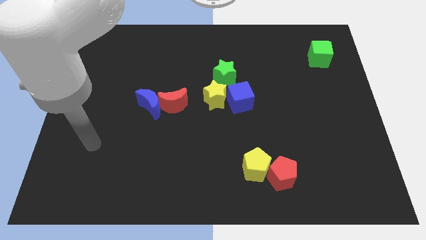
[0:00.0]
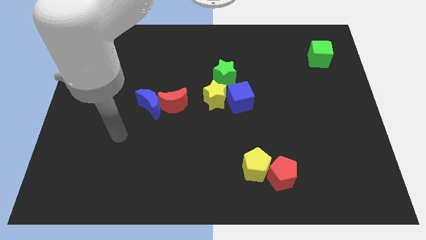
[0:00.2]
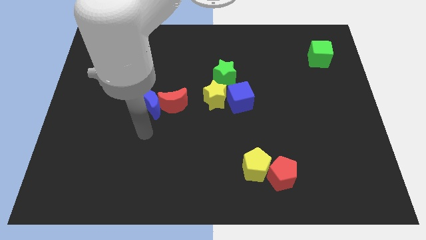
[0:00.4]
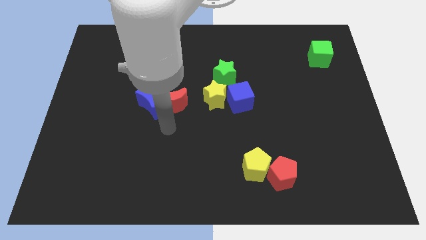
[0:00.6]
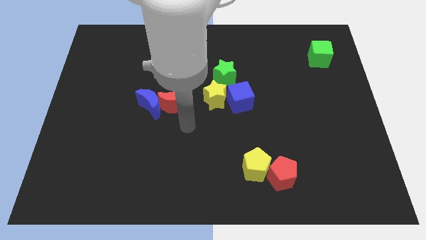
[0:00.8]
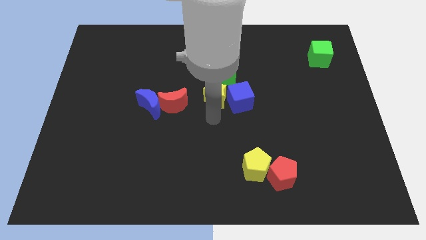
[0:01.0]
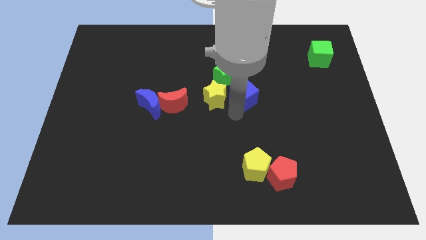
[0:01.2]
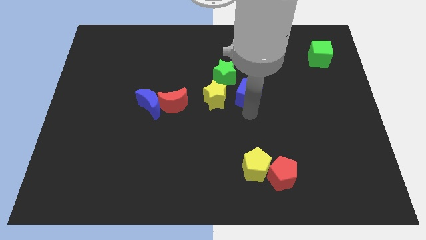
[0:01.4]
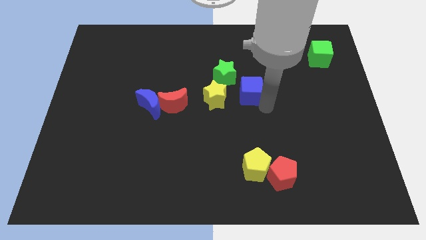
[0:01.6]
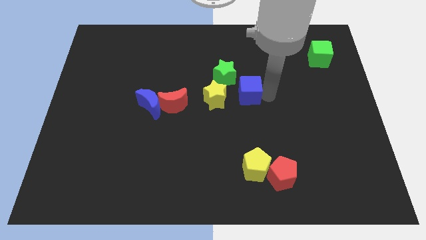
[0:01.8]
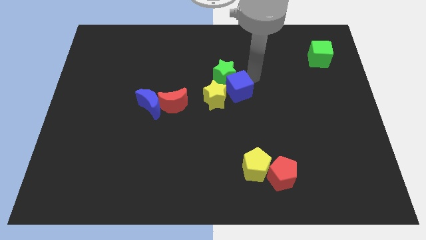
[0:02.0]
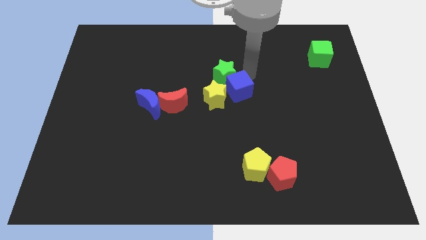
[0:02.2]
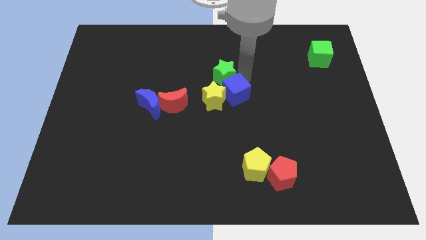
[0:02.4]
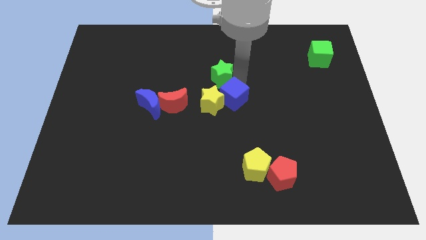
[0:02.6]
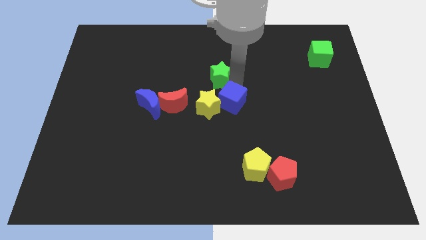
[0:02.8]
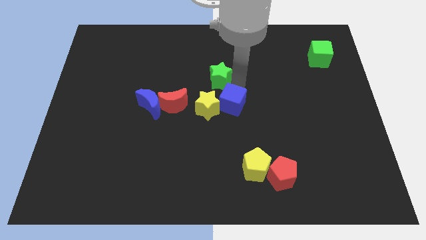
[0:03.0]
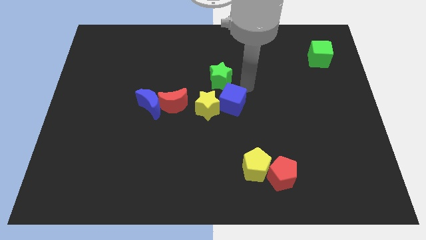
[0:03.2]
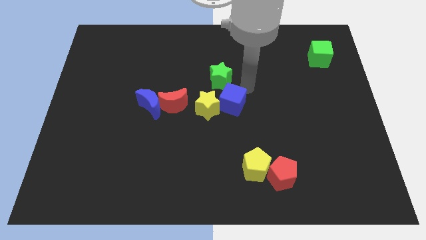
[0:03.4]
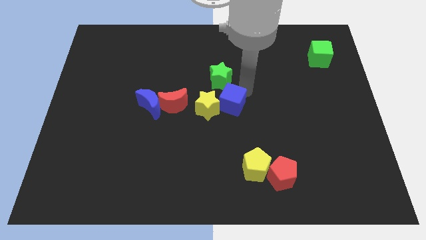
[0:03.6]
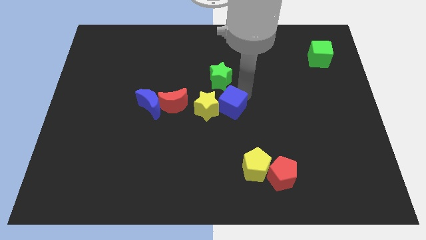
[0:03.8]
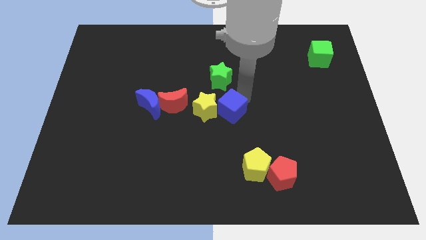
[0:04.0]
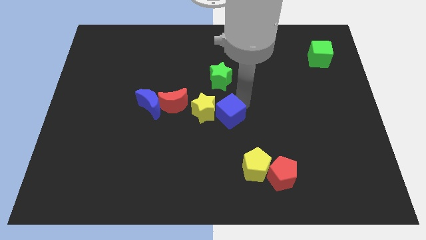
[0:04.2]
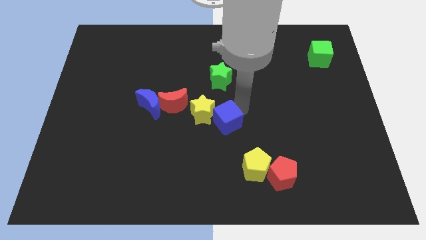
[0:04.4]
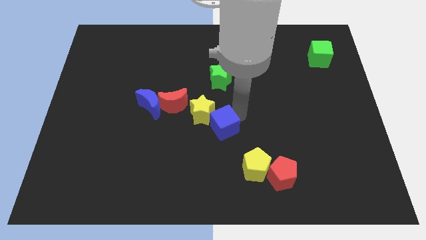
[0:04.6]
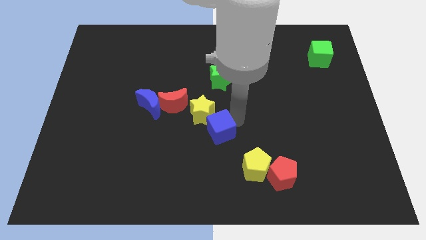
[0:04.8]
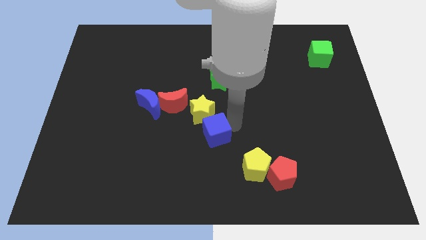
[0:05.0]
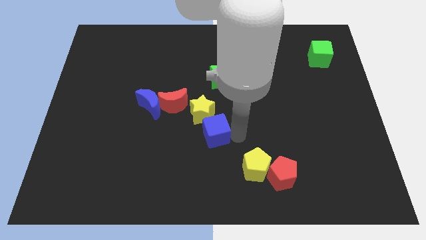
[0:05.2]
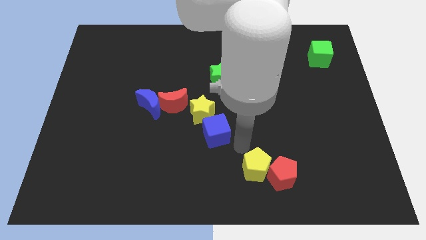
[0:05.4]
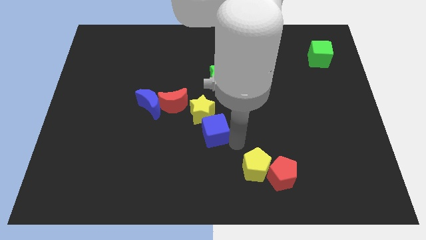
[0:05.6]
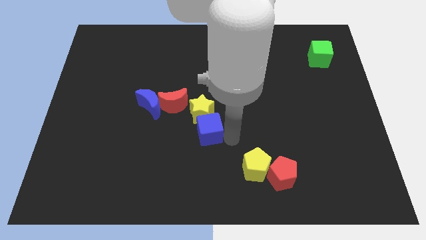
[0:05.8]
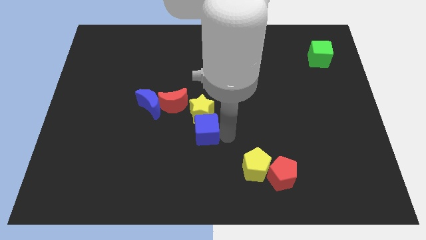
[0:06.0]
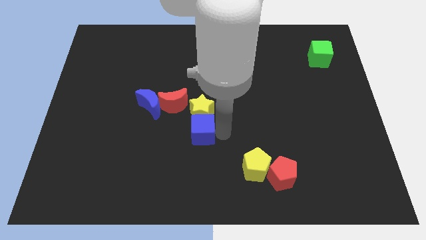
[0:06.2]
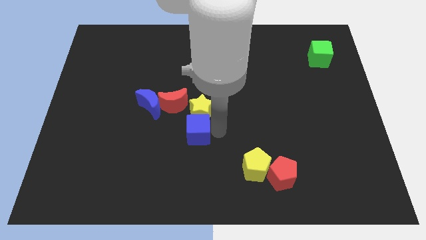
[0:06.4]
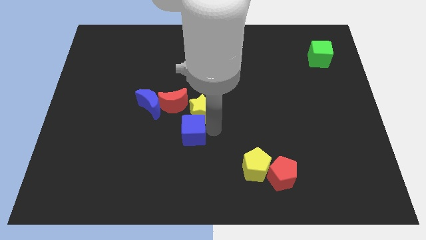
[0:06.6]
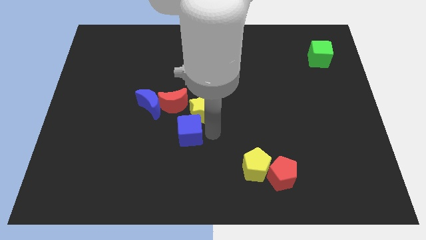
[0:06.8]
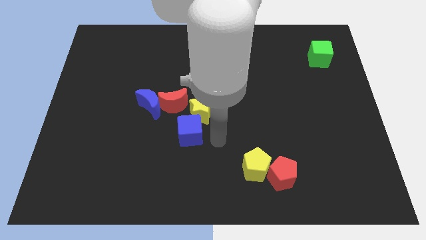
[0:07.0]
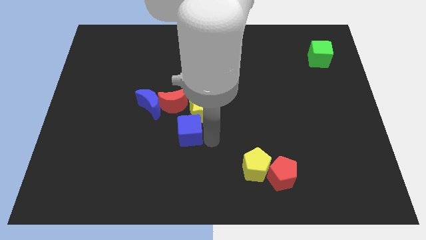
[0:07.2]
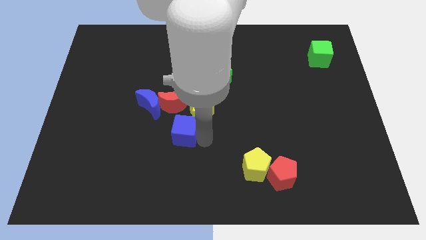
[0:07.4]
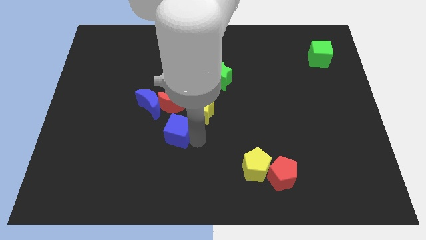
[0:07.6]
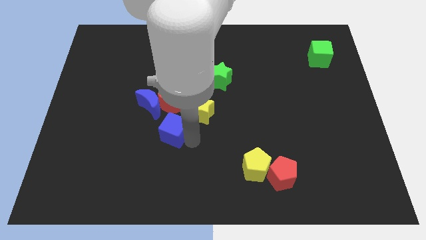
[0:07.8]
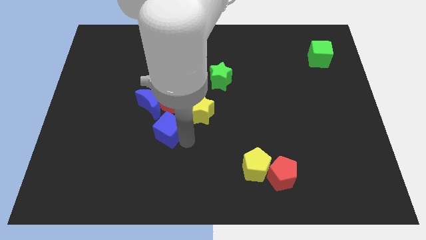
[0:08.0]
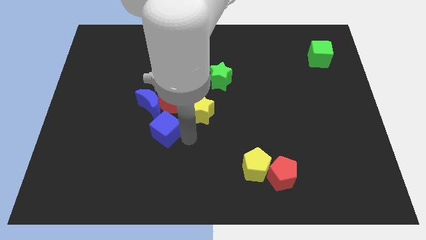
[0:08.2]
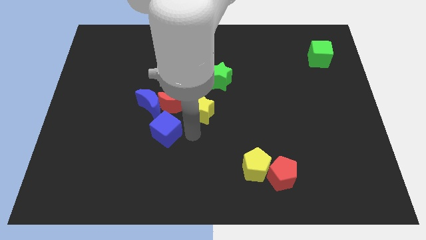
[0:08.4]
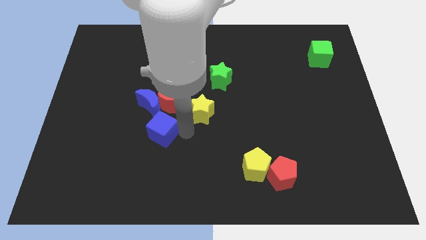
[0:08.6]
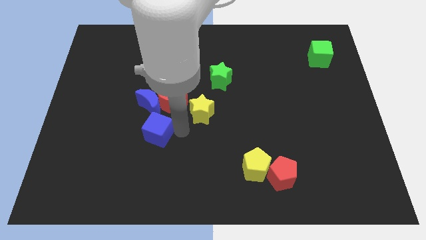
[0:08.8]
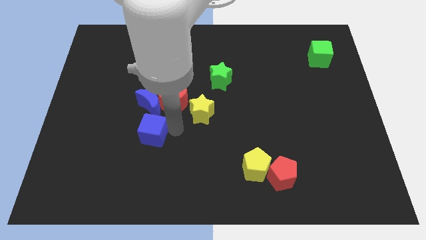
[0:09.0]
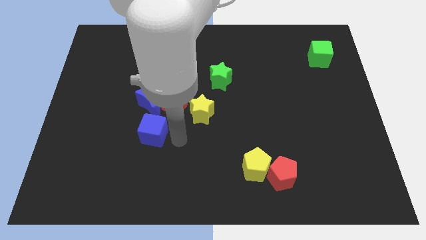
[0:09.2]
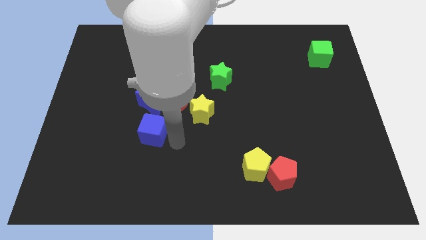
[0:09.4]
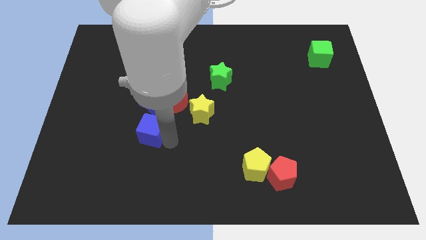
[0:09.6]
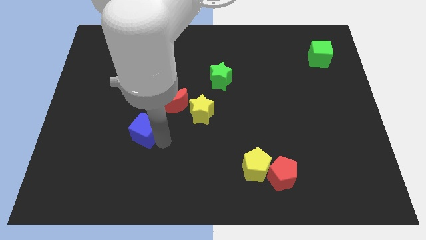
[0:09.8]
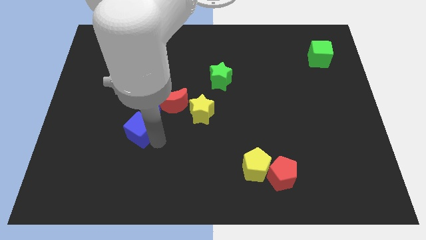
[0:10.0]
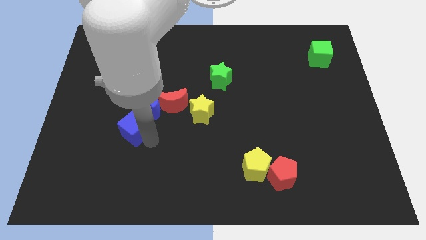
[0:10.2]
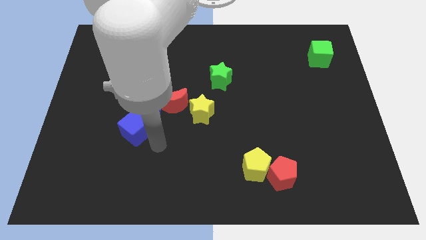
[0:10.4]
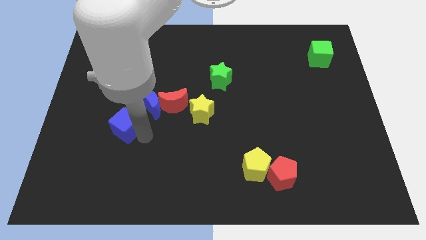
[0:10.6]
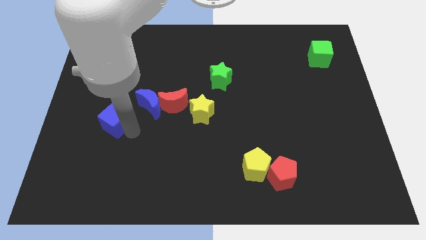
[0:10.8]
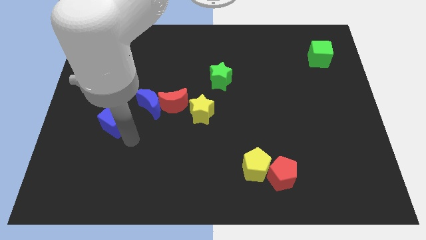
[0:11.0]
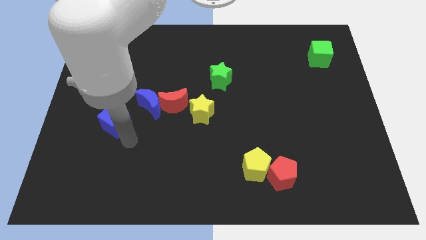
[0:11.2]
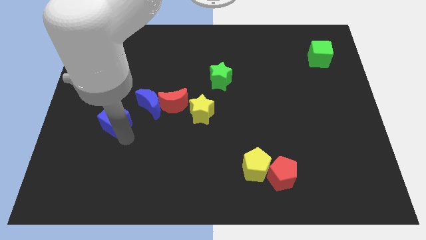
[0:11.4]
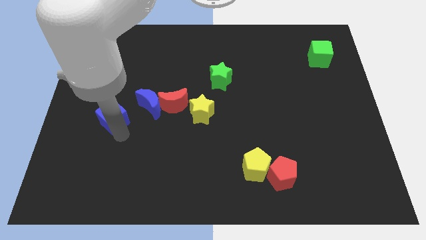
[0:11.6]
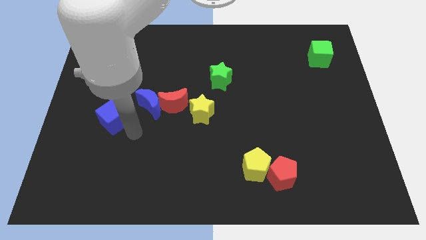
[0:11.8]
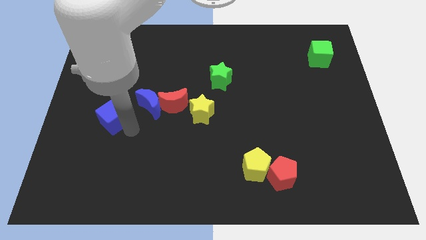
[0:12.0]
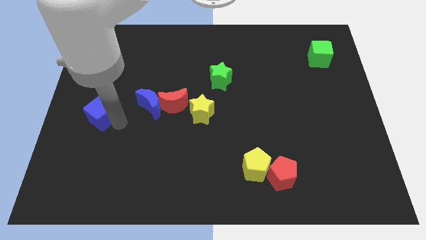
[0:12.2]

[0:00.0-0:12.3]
put the blue cube to the left side

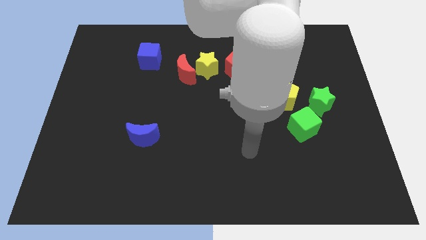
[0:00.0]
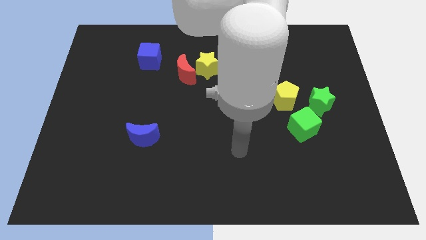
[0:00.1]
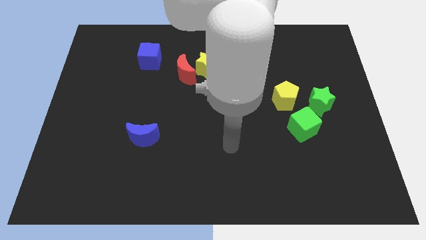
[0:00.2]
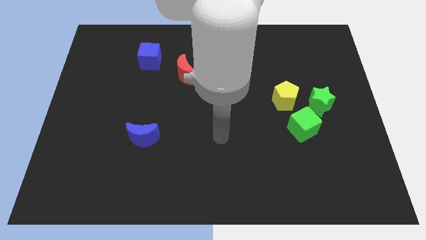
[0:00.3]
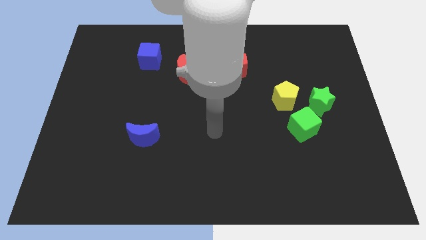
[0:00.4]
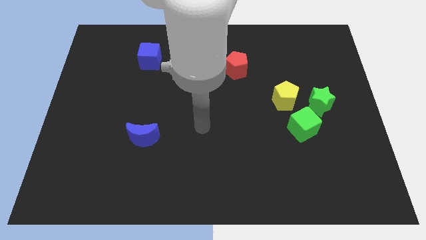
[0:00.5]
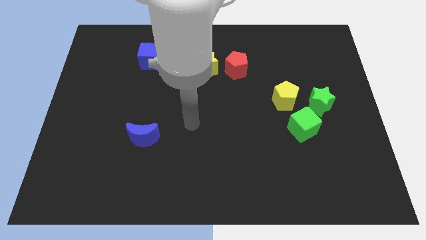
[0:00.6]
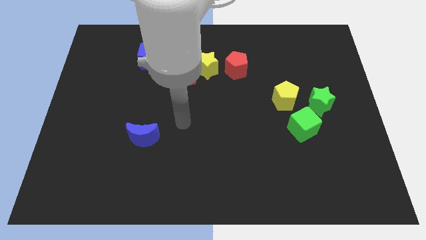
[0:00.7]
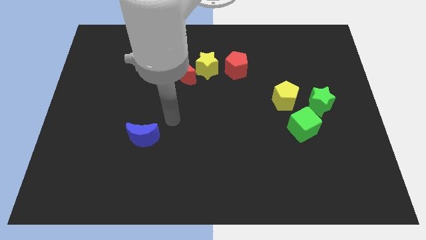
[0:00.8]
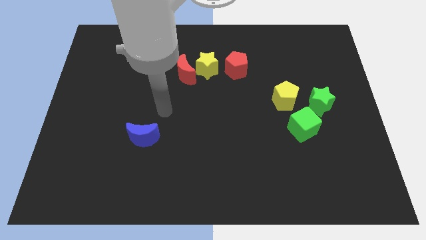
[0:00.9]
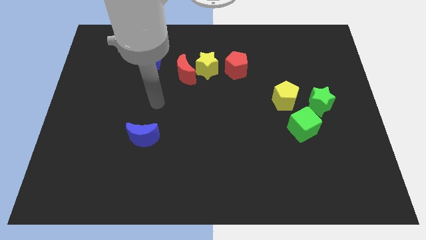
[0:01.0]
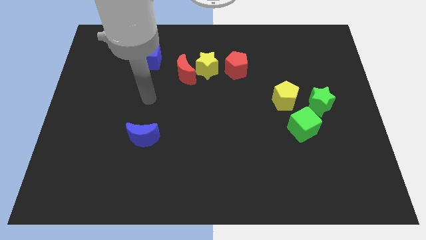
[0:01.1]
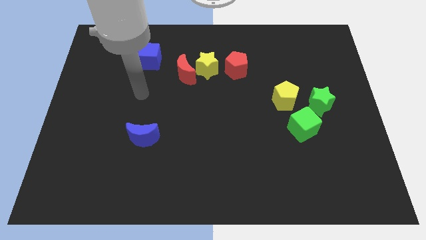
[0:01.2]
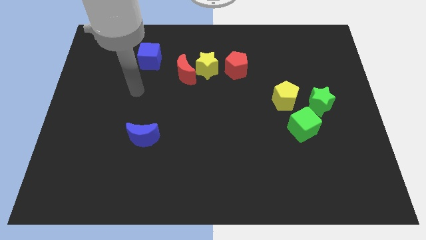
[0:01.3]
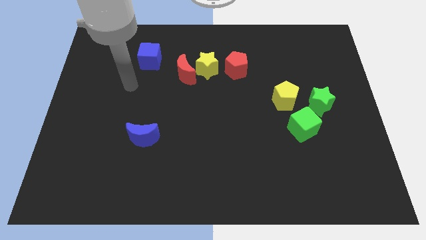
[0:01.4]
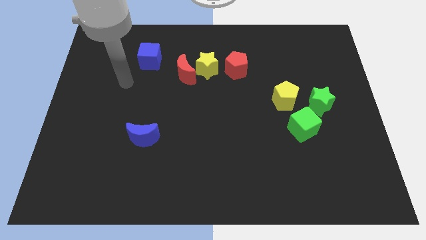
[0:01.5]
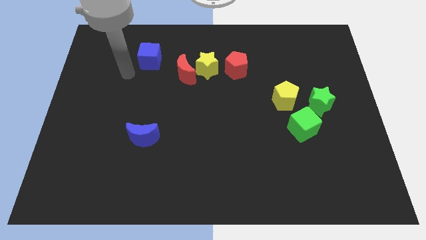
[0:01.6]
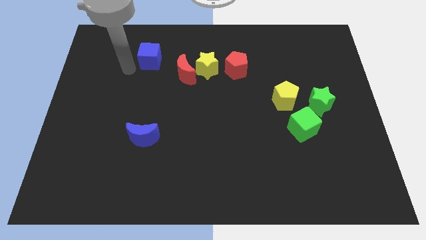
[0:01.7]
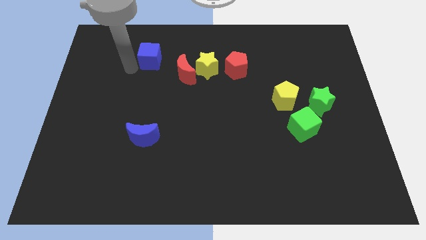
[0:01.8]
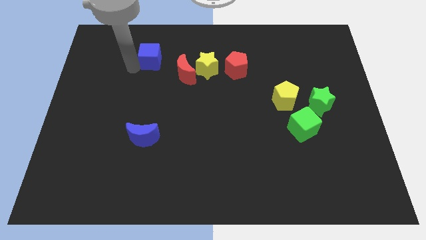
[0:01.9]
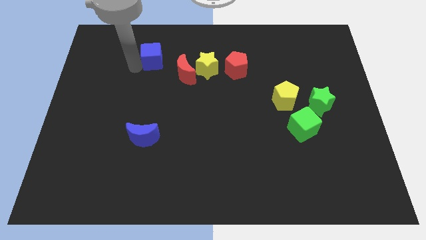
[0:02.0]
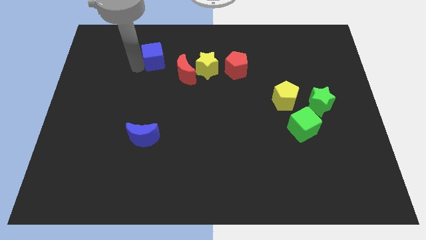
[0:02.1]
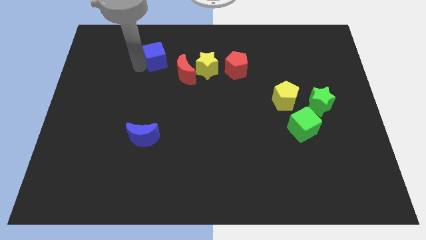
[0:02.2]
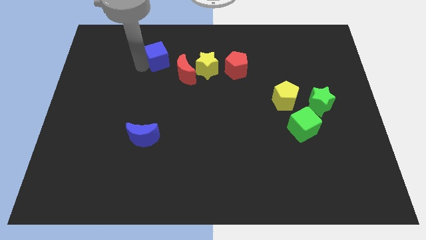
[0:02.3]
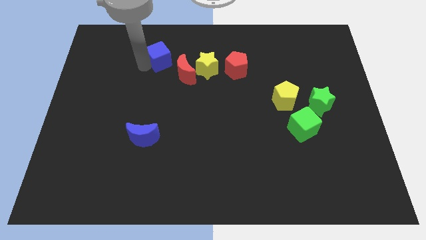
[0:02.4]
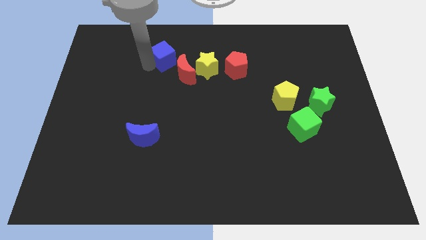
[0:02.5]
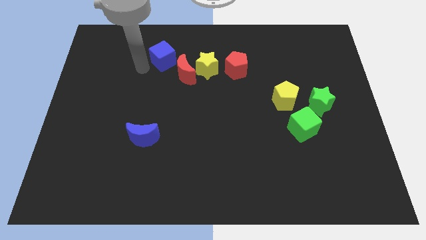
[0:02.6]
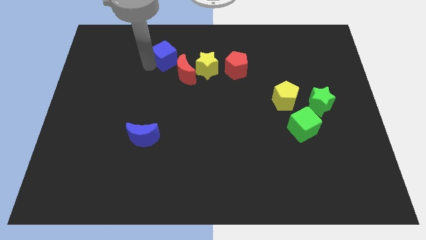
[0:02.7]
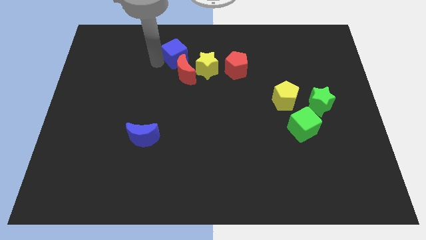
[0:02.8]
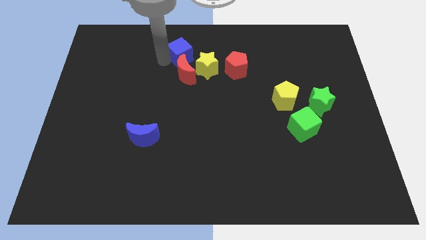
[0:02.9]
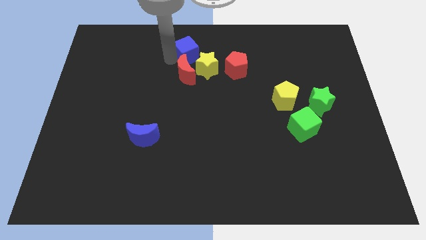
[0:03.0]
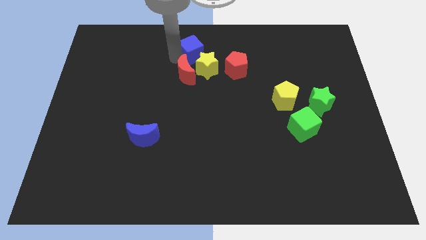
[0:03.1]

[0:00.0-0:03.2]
move the blue cube to the top
